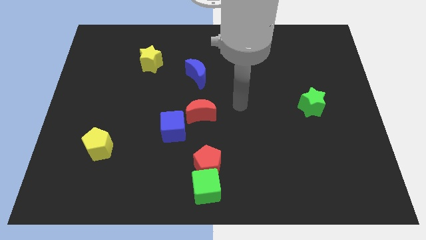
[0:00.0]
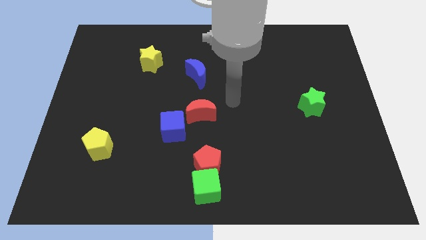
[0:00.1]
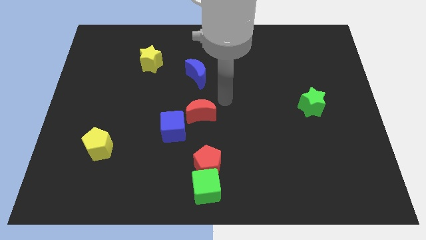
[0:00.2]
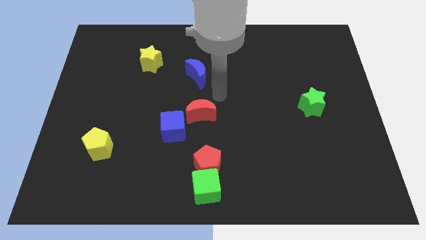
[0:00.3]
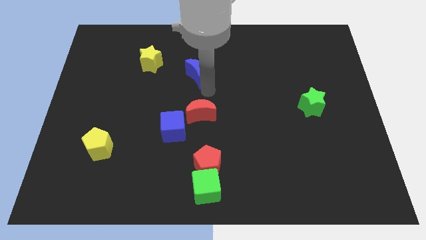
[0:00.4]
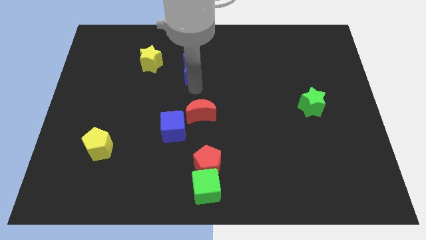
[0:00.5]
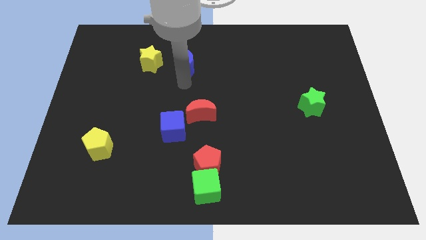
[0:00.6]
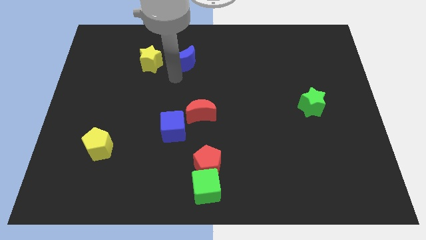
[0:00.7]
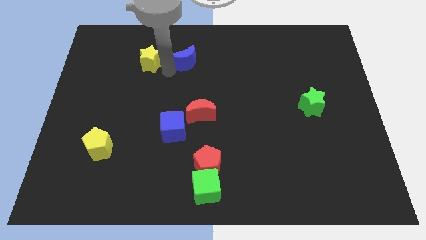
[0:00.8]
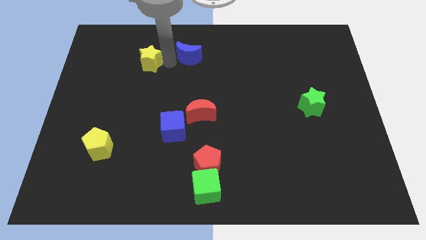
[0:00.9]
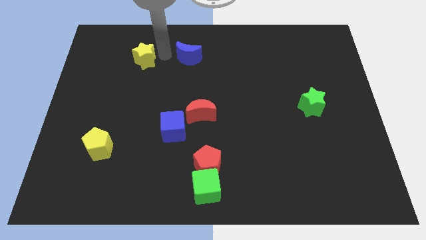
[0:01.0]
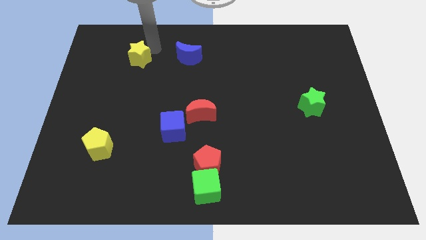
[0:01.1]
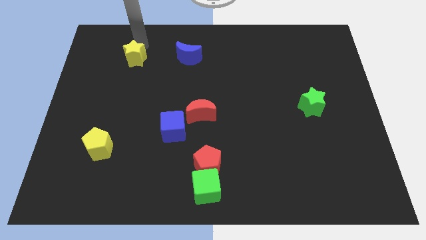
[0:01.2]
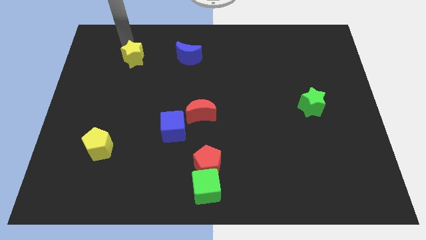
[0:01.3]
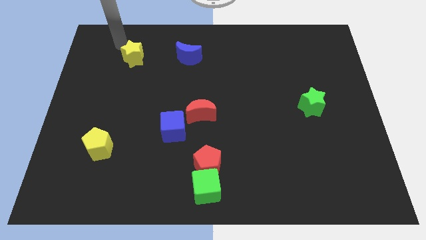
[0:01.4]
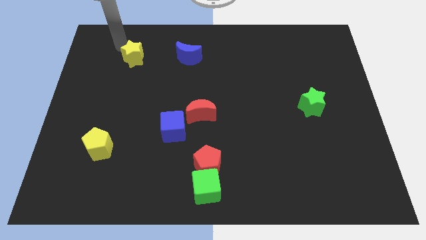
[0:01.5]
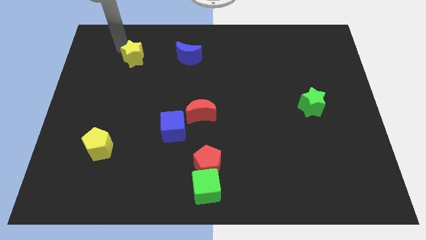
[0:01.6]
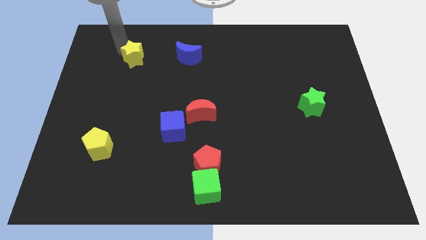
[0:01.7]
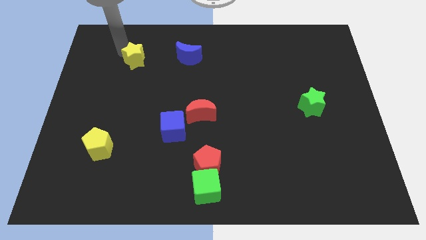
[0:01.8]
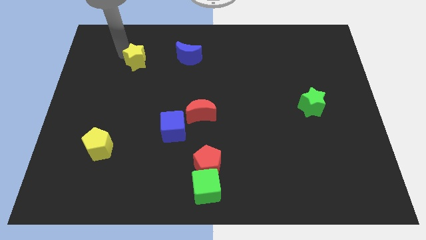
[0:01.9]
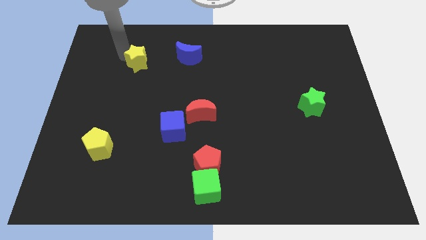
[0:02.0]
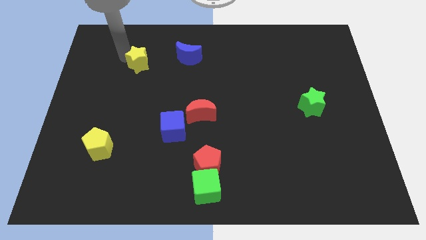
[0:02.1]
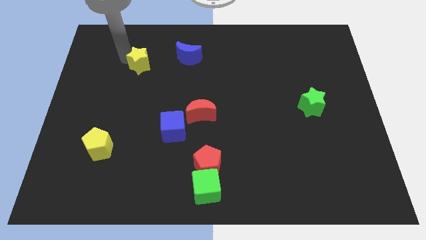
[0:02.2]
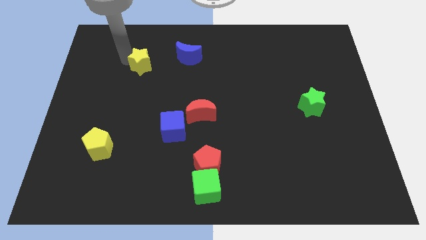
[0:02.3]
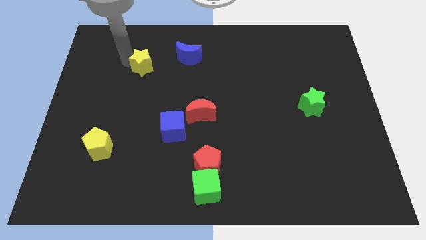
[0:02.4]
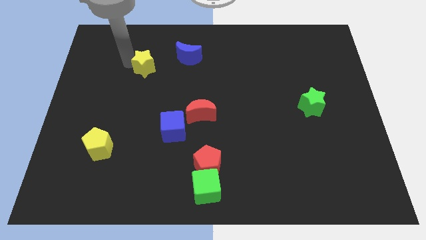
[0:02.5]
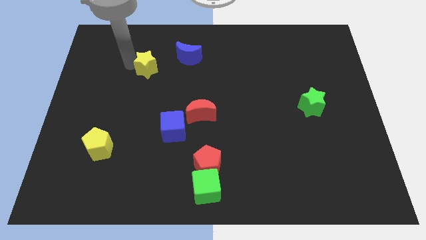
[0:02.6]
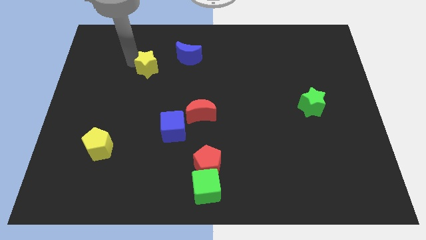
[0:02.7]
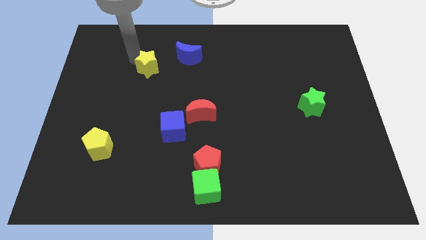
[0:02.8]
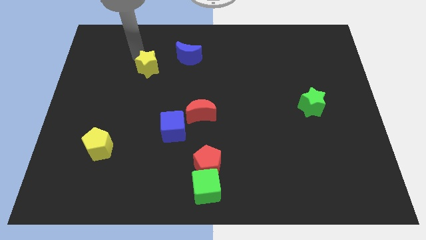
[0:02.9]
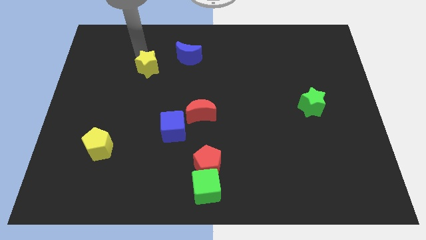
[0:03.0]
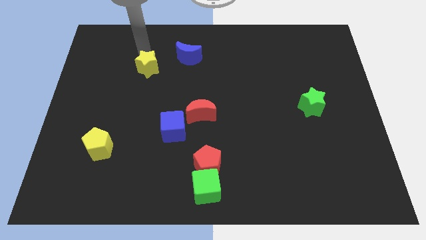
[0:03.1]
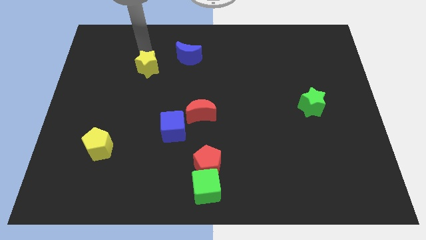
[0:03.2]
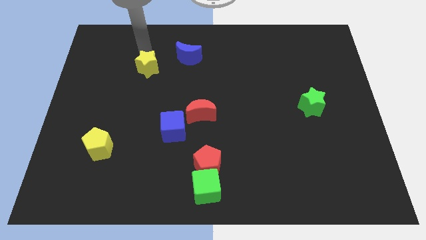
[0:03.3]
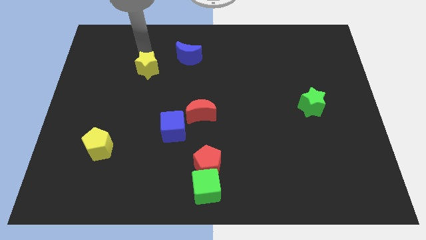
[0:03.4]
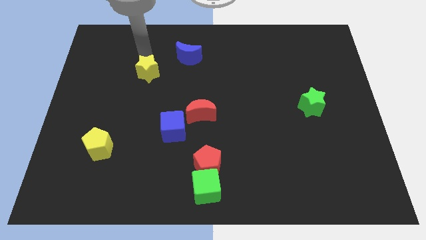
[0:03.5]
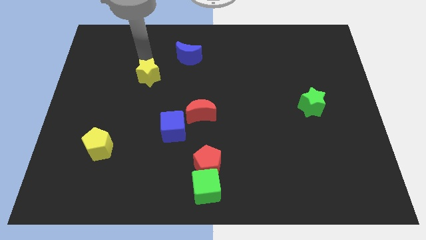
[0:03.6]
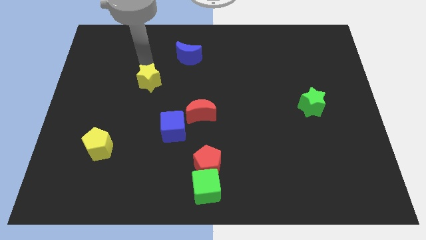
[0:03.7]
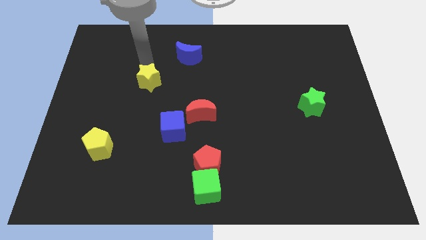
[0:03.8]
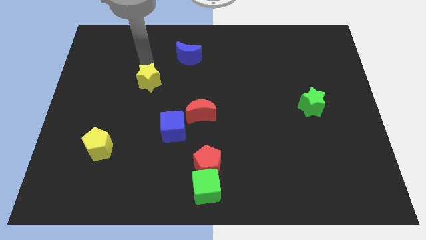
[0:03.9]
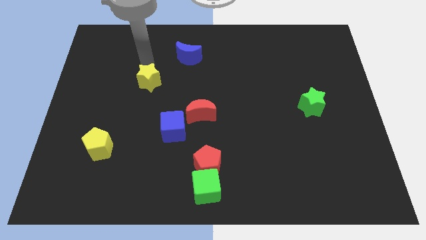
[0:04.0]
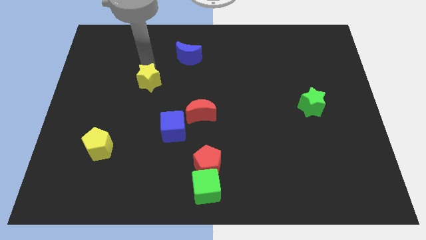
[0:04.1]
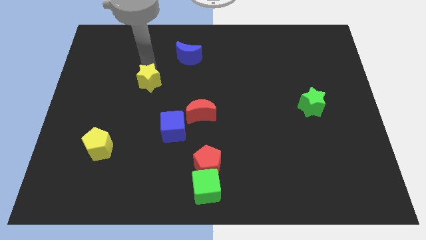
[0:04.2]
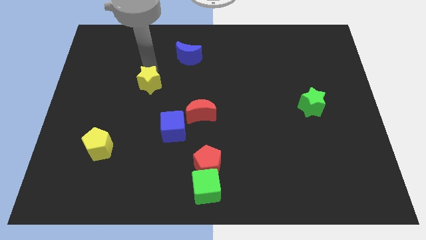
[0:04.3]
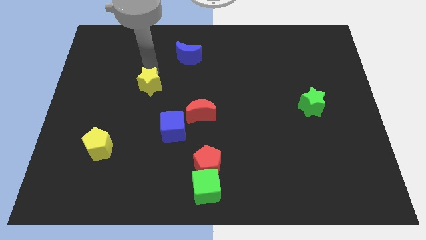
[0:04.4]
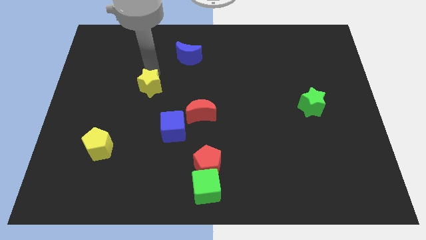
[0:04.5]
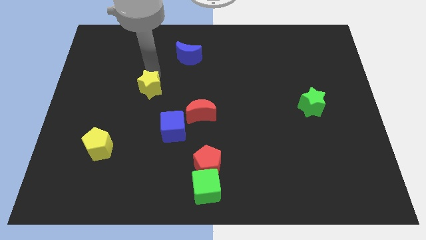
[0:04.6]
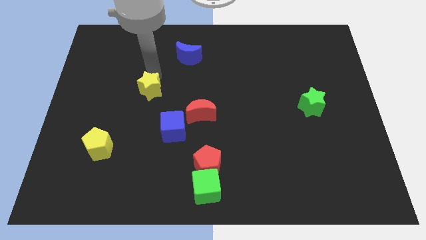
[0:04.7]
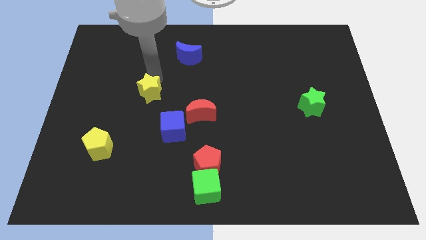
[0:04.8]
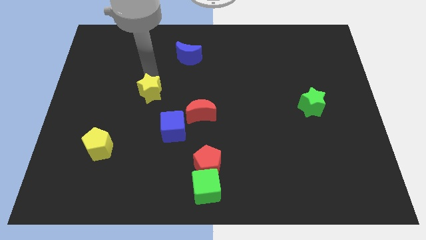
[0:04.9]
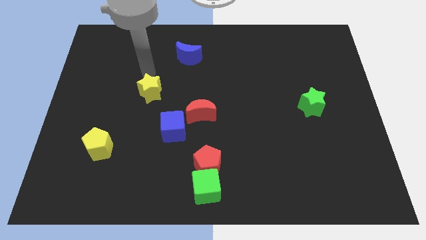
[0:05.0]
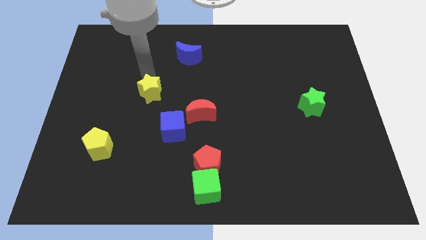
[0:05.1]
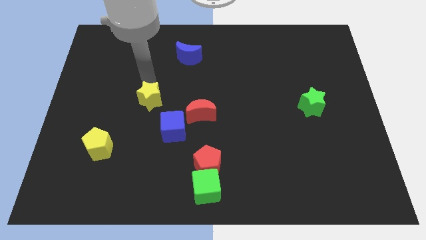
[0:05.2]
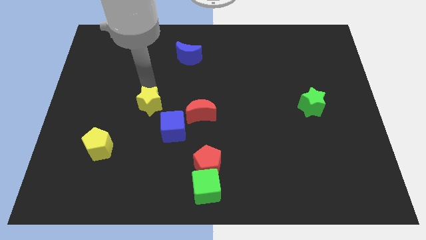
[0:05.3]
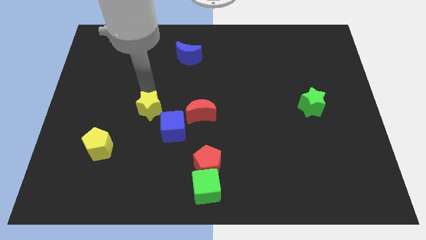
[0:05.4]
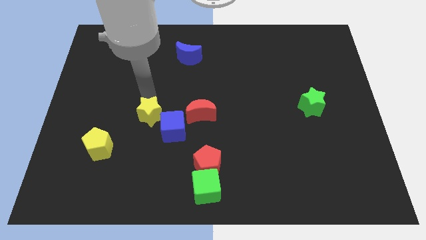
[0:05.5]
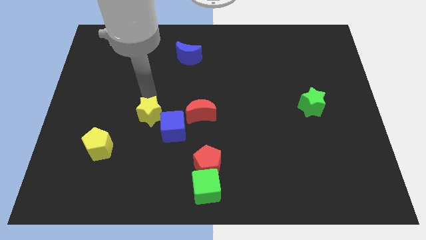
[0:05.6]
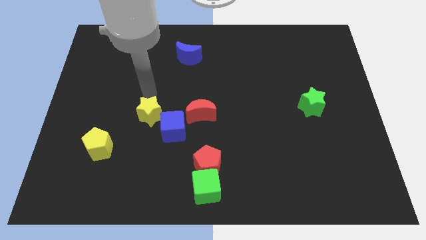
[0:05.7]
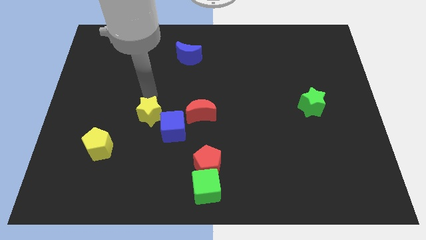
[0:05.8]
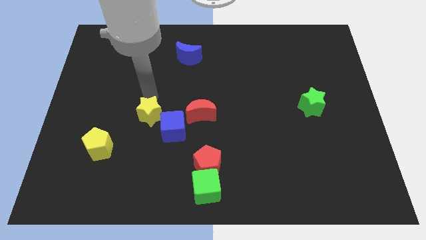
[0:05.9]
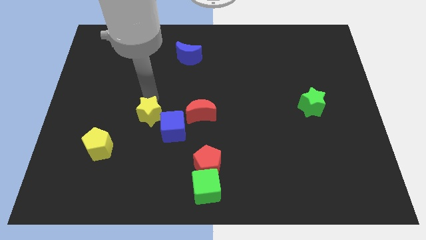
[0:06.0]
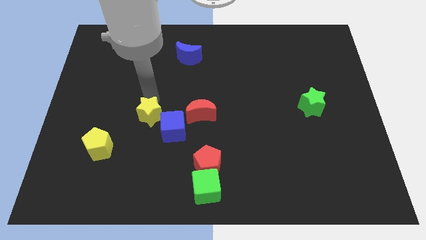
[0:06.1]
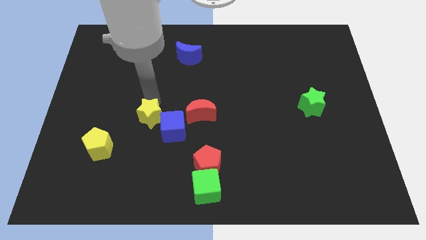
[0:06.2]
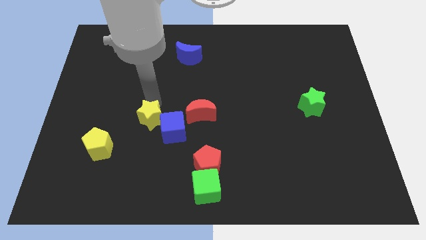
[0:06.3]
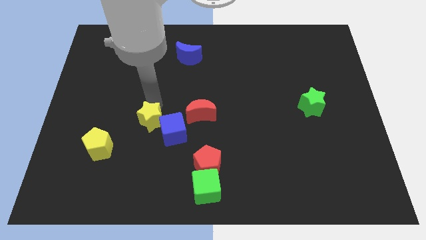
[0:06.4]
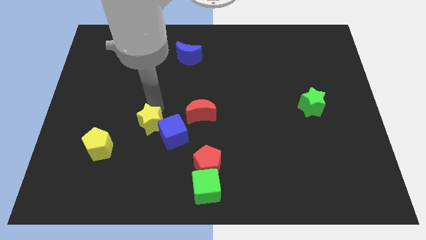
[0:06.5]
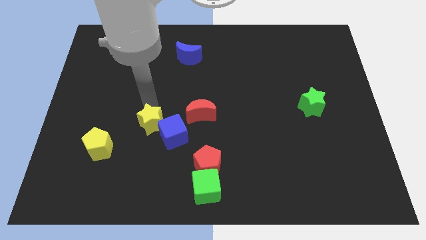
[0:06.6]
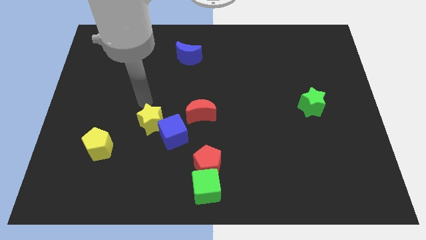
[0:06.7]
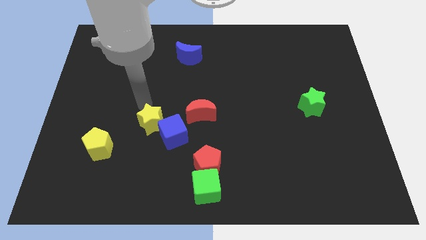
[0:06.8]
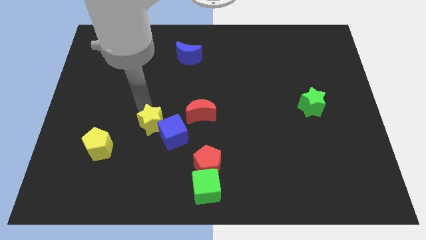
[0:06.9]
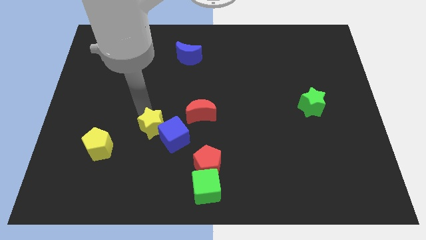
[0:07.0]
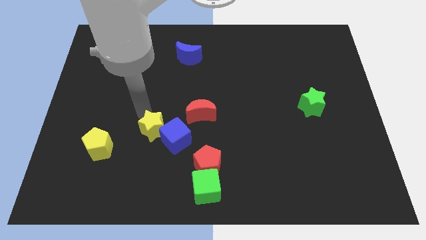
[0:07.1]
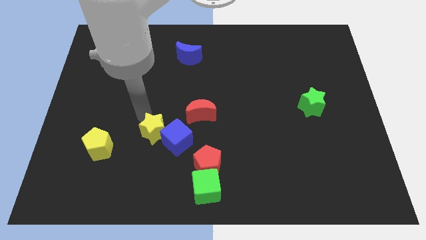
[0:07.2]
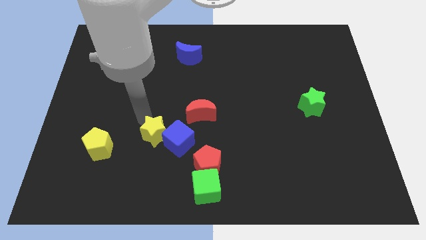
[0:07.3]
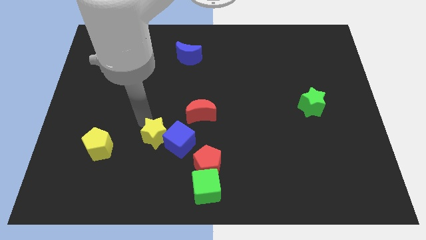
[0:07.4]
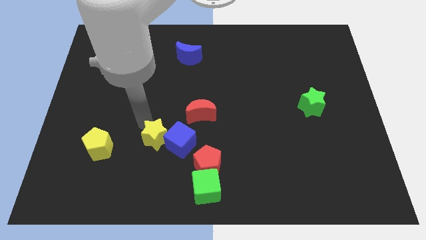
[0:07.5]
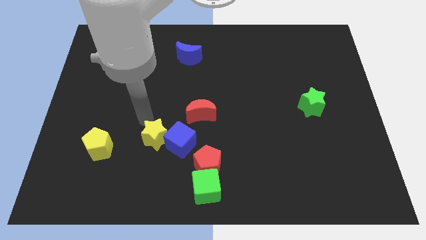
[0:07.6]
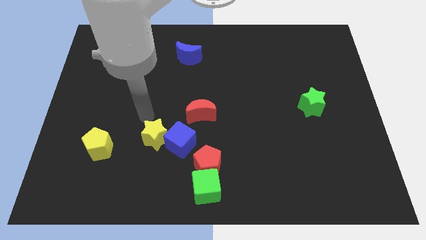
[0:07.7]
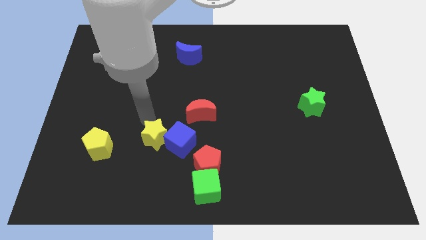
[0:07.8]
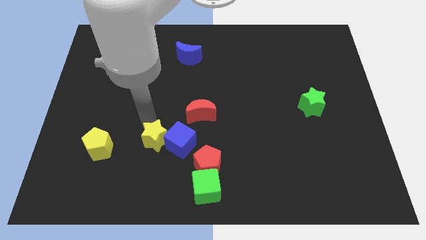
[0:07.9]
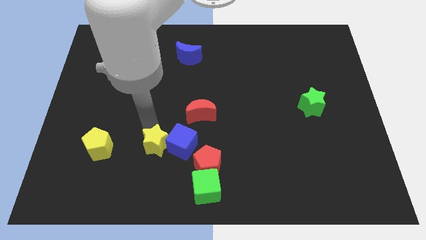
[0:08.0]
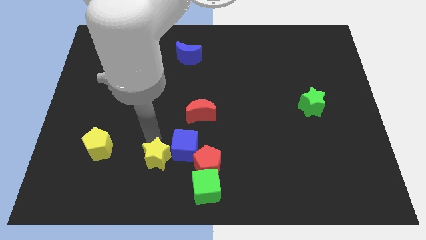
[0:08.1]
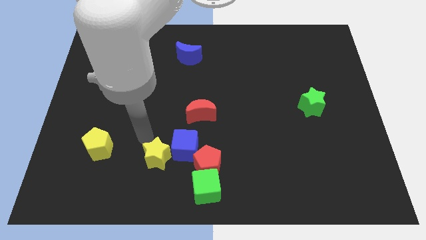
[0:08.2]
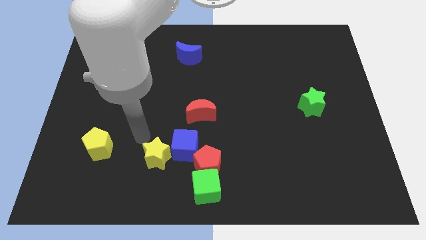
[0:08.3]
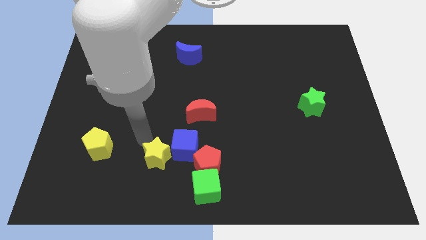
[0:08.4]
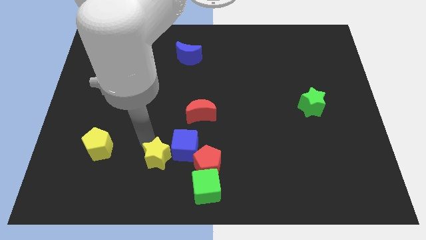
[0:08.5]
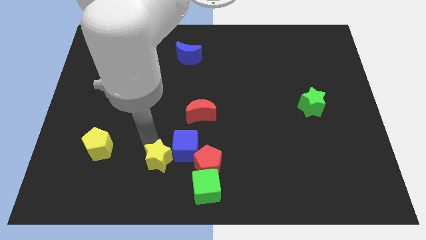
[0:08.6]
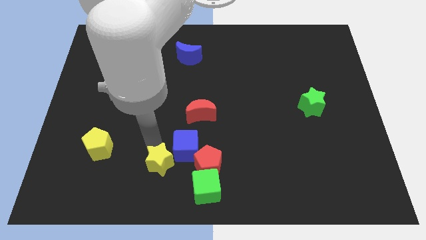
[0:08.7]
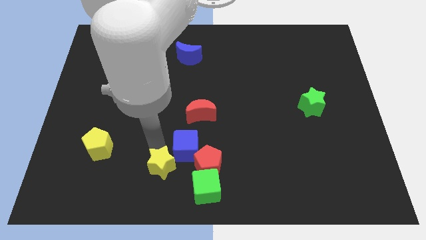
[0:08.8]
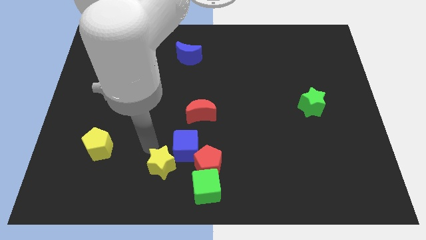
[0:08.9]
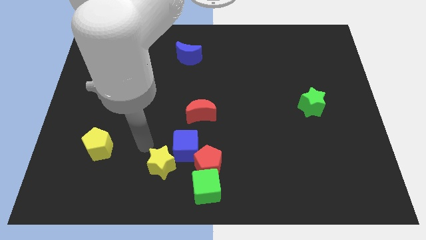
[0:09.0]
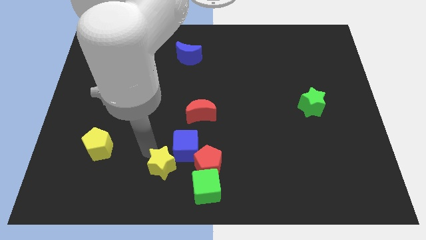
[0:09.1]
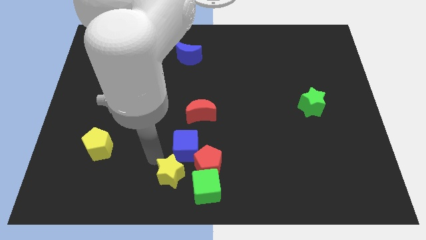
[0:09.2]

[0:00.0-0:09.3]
slide the yellow star below the blue cube
